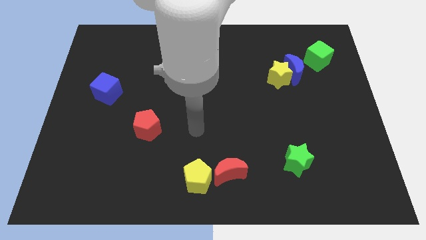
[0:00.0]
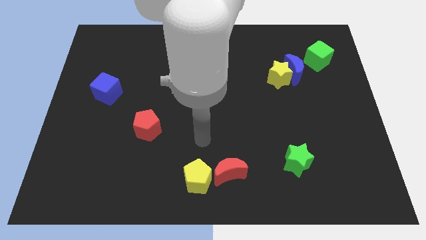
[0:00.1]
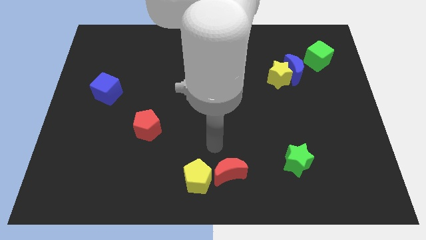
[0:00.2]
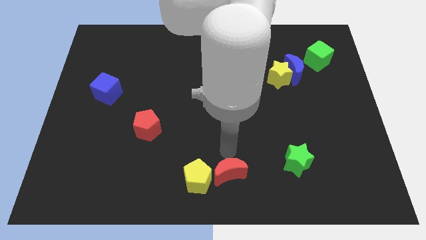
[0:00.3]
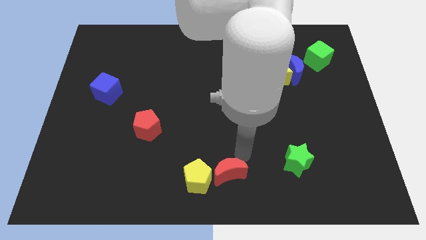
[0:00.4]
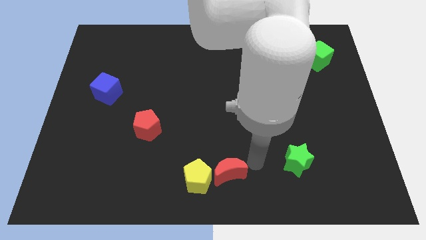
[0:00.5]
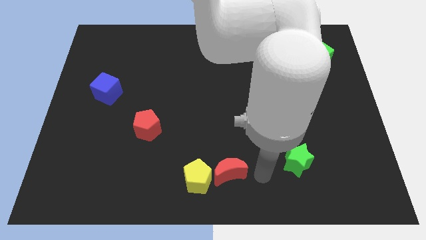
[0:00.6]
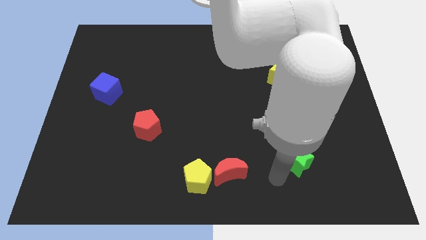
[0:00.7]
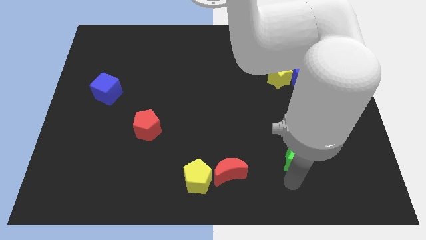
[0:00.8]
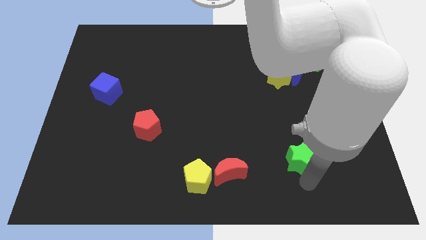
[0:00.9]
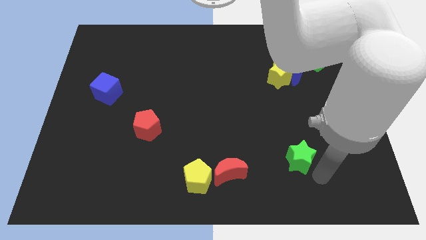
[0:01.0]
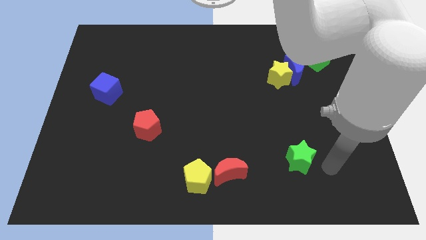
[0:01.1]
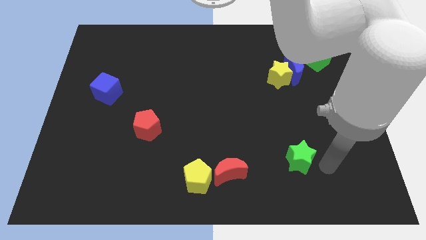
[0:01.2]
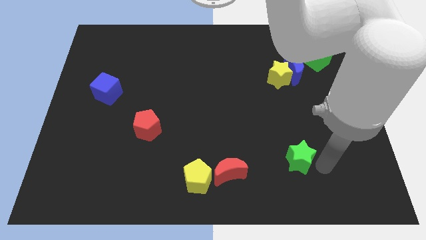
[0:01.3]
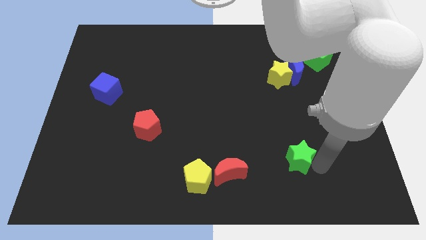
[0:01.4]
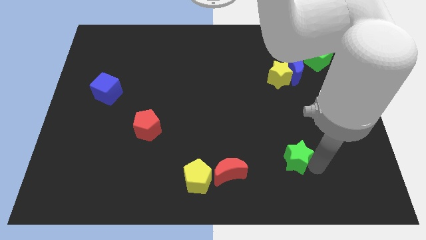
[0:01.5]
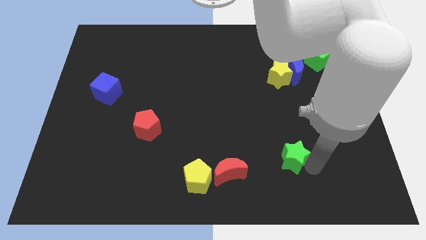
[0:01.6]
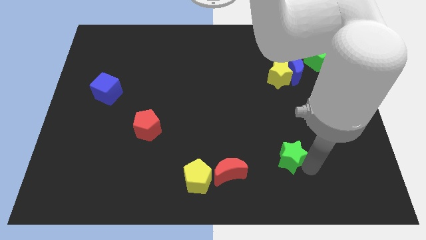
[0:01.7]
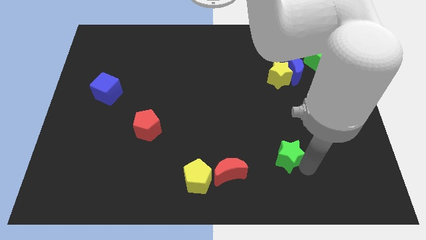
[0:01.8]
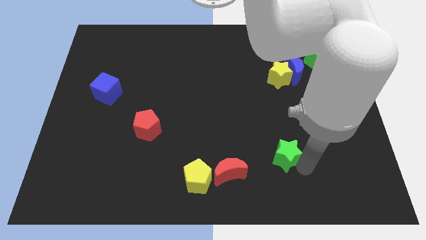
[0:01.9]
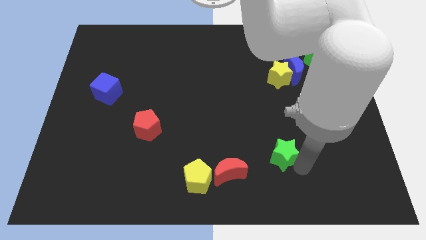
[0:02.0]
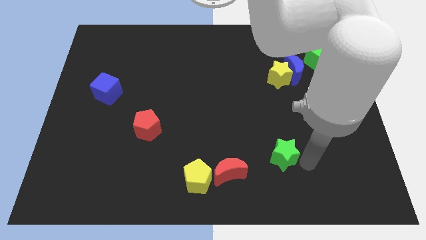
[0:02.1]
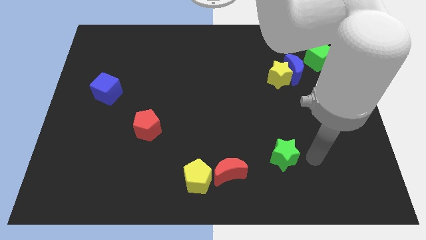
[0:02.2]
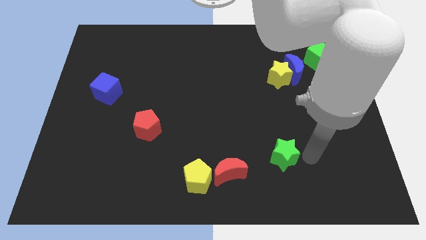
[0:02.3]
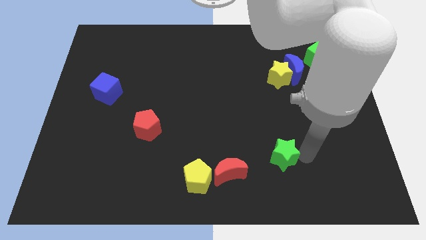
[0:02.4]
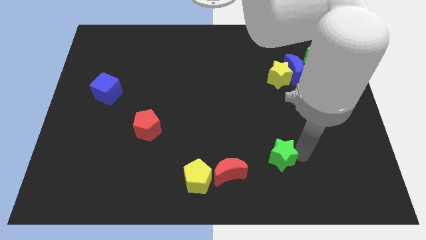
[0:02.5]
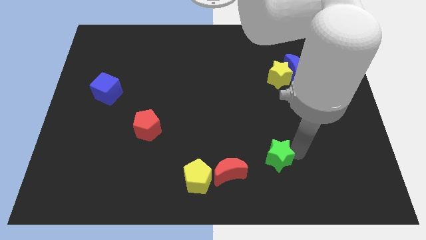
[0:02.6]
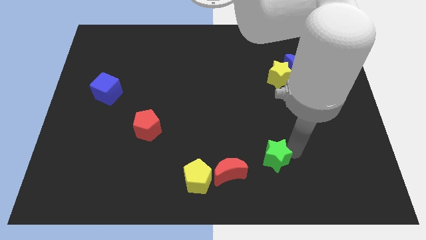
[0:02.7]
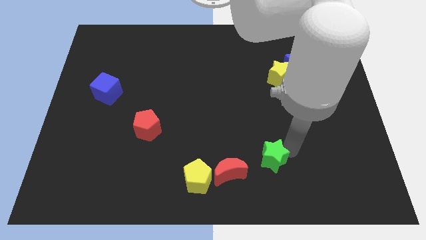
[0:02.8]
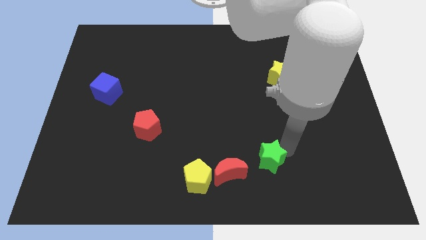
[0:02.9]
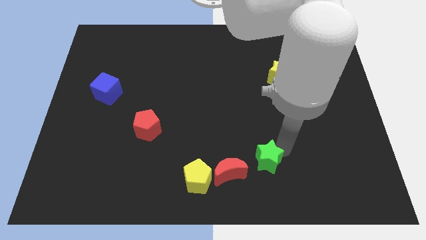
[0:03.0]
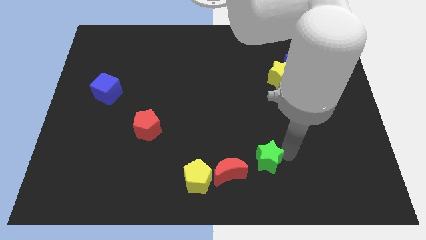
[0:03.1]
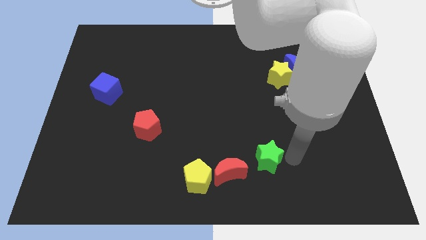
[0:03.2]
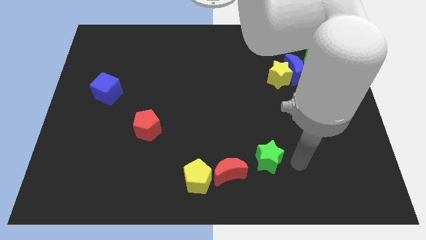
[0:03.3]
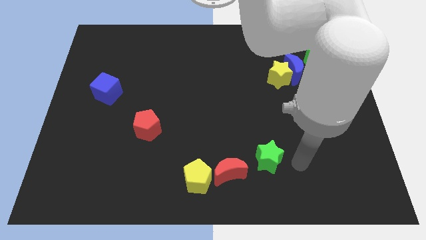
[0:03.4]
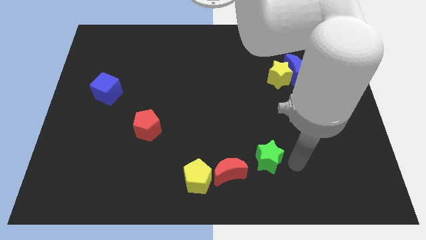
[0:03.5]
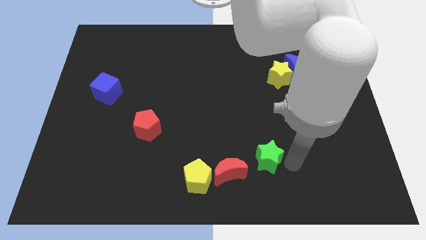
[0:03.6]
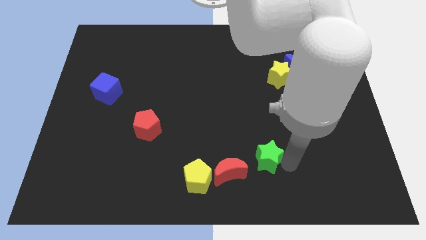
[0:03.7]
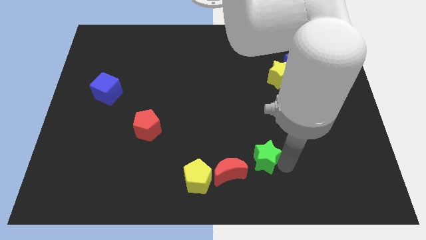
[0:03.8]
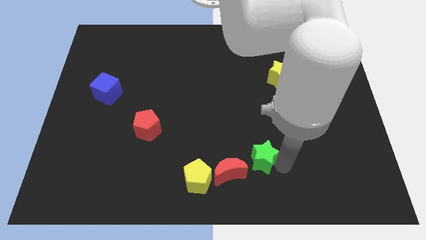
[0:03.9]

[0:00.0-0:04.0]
slightly push the green star left

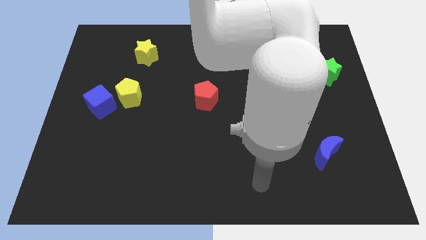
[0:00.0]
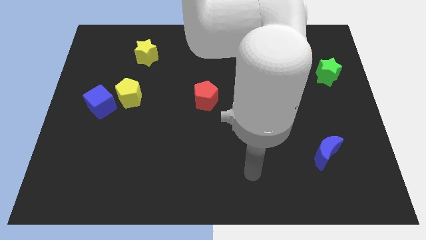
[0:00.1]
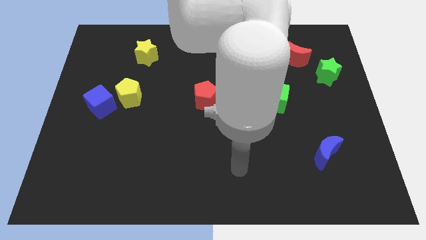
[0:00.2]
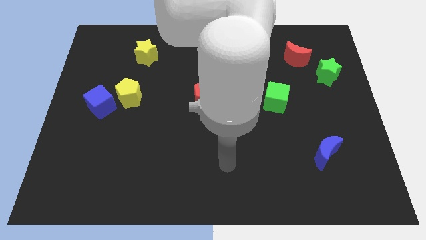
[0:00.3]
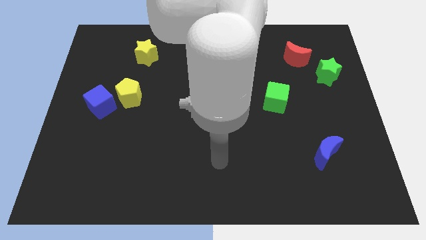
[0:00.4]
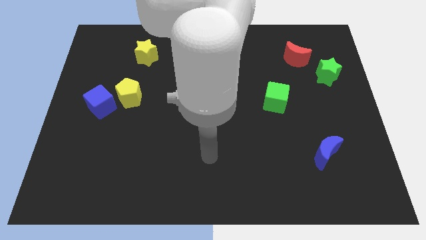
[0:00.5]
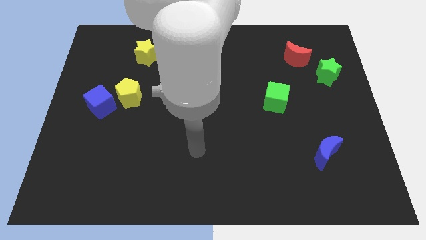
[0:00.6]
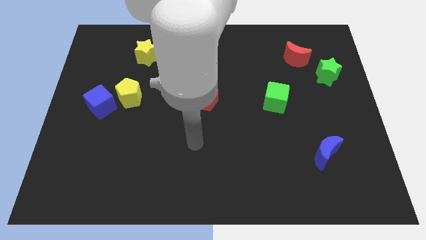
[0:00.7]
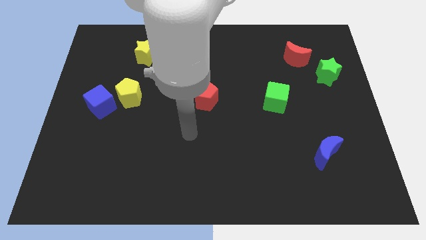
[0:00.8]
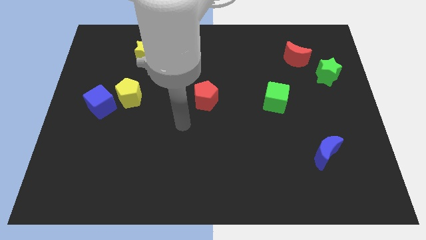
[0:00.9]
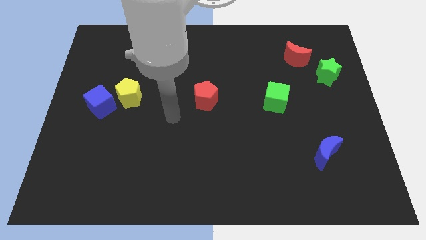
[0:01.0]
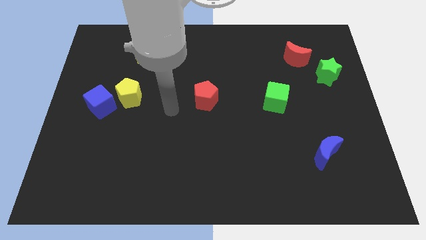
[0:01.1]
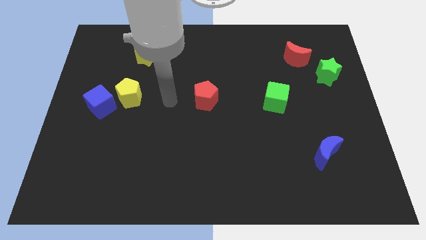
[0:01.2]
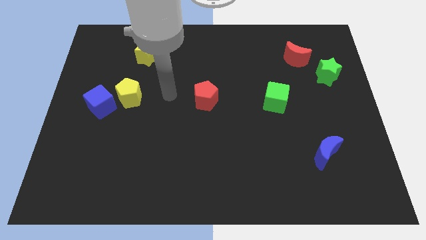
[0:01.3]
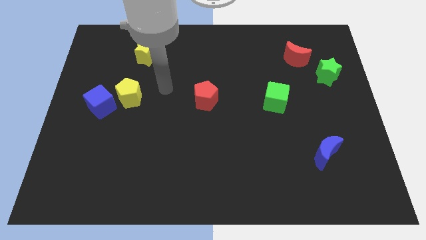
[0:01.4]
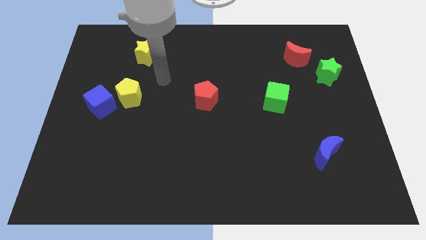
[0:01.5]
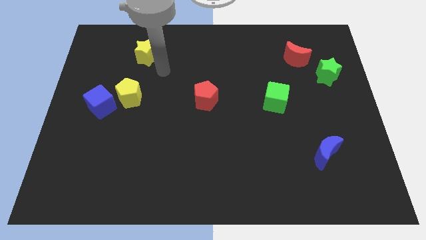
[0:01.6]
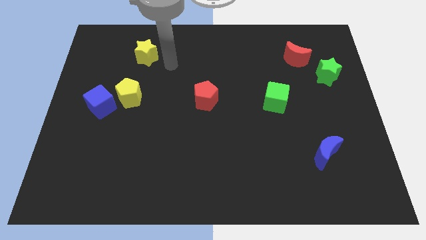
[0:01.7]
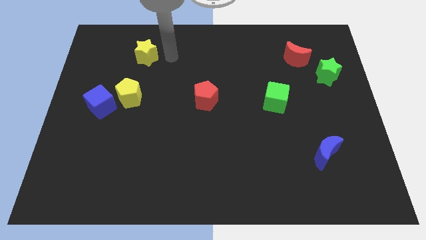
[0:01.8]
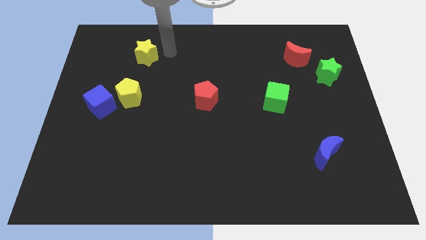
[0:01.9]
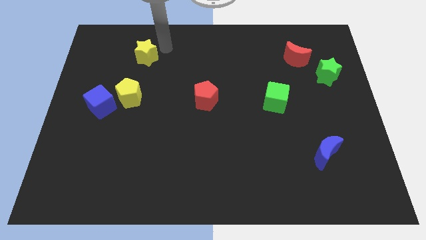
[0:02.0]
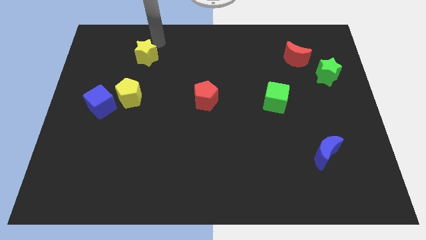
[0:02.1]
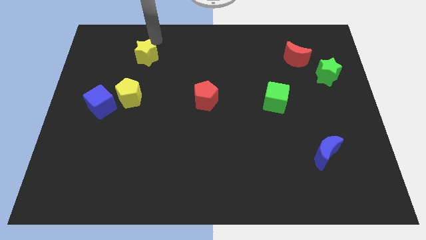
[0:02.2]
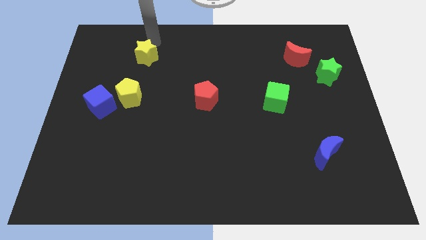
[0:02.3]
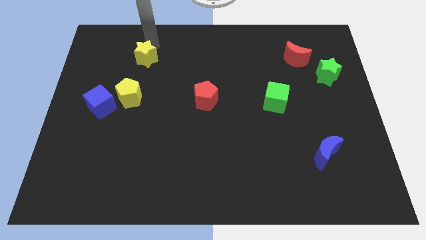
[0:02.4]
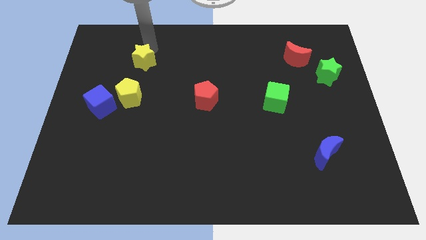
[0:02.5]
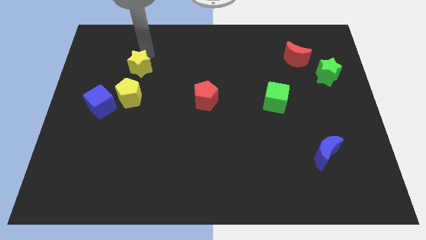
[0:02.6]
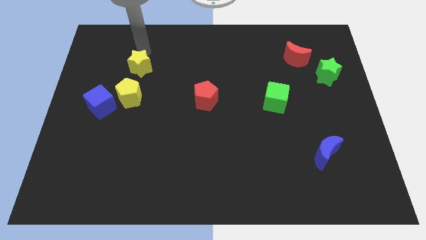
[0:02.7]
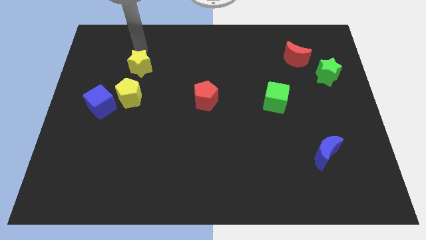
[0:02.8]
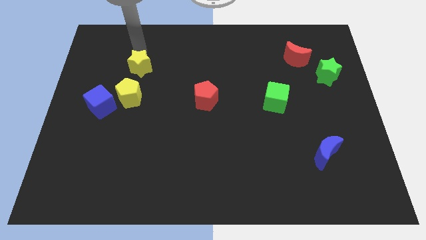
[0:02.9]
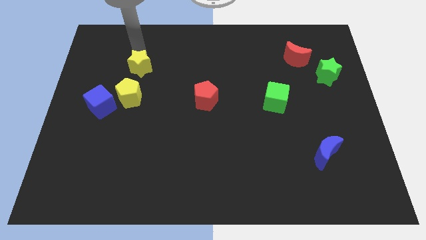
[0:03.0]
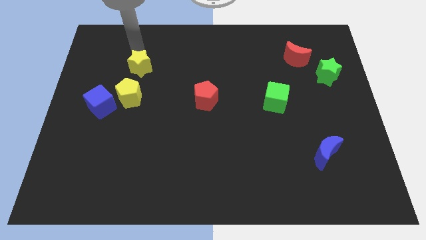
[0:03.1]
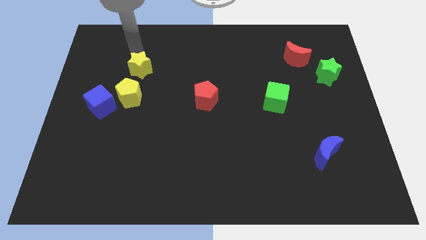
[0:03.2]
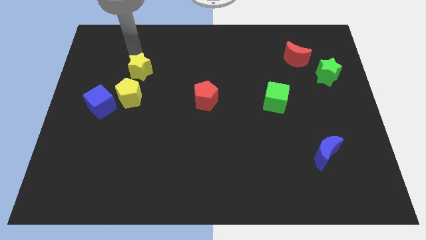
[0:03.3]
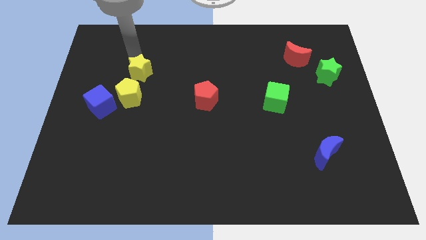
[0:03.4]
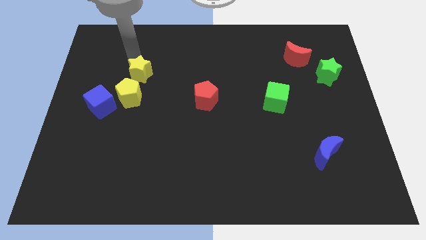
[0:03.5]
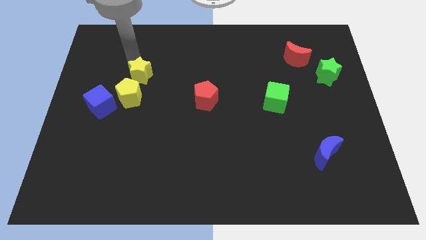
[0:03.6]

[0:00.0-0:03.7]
slide the yellow star slightly down
